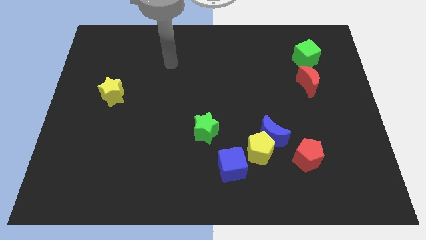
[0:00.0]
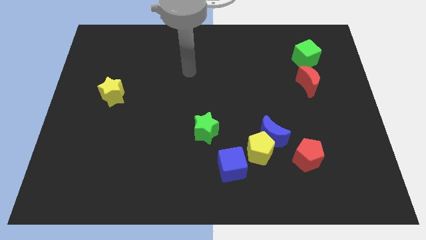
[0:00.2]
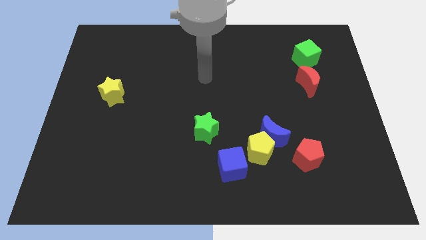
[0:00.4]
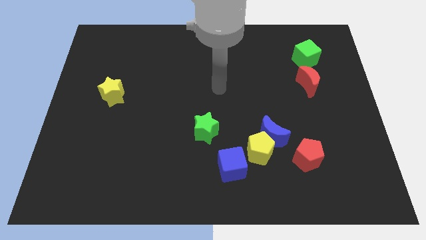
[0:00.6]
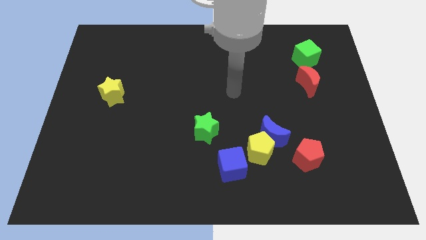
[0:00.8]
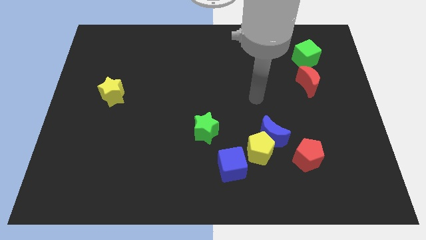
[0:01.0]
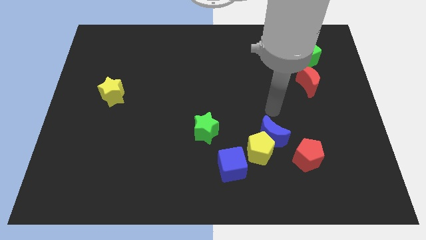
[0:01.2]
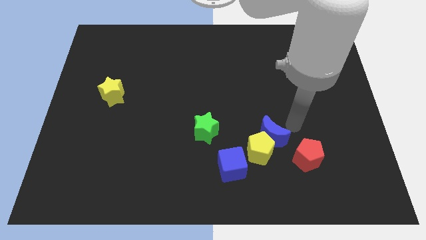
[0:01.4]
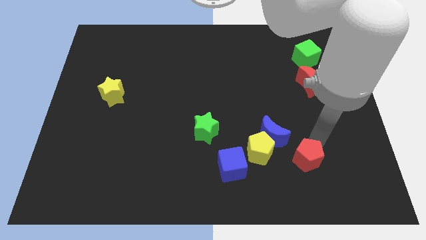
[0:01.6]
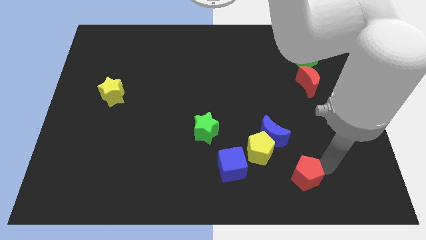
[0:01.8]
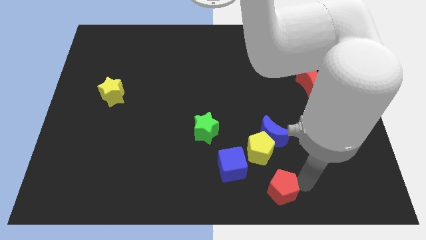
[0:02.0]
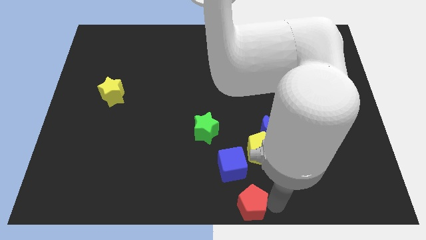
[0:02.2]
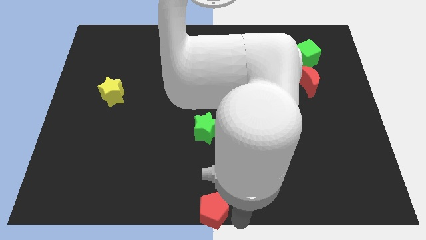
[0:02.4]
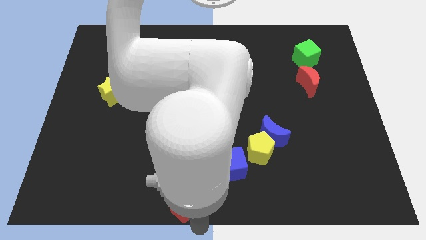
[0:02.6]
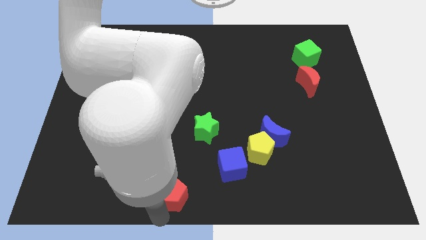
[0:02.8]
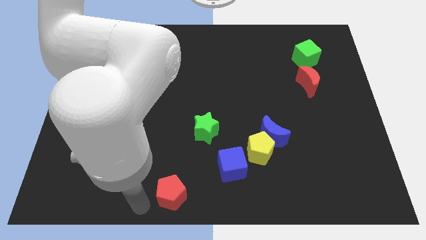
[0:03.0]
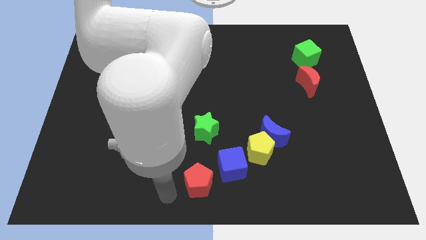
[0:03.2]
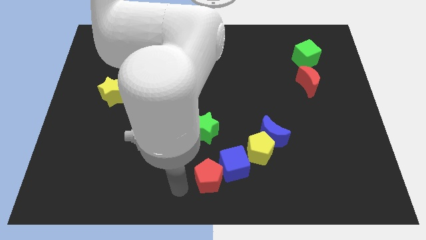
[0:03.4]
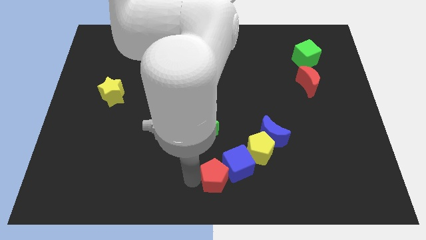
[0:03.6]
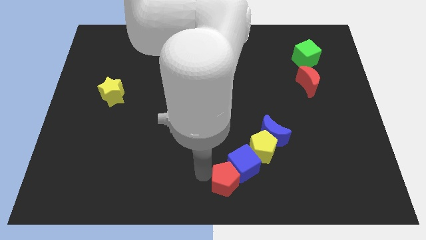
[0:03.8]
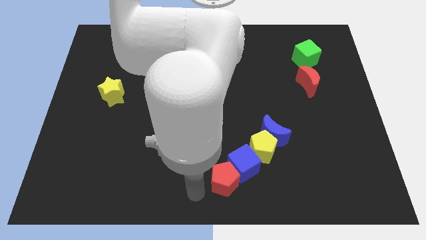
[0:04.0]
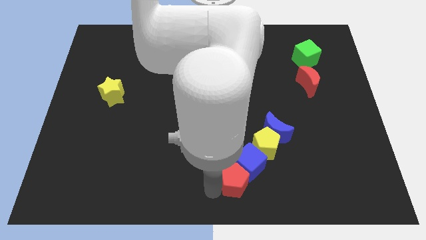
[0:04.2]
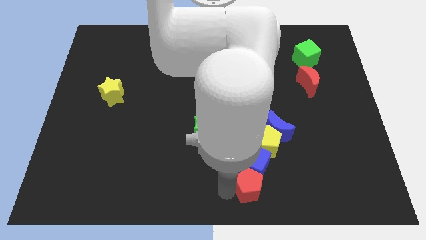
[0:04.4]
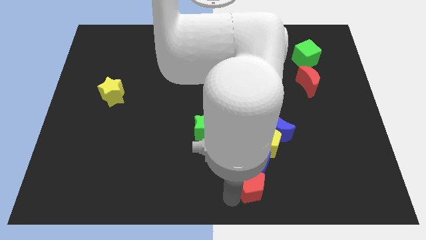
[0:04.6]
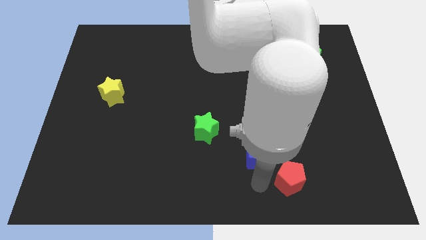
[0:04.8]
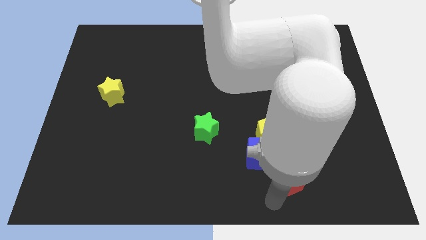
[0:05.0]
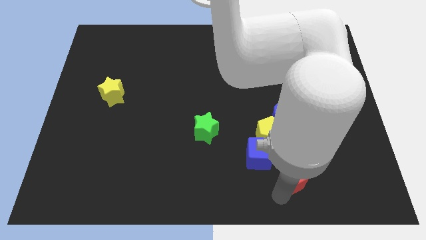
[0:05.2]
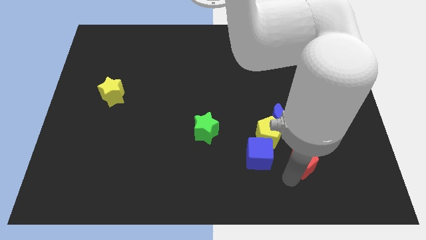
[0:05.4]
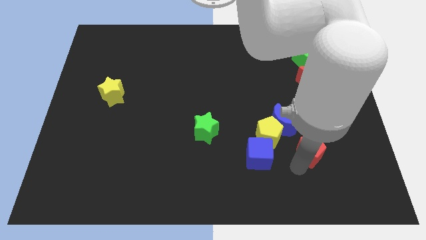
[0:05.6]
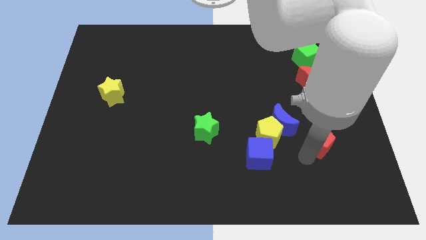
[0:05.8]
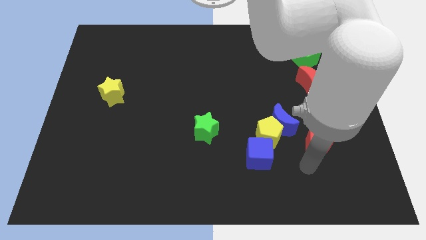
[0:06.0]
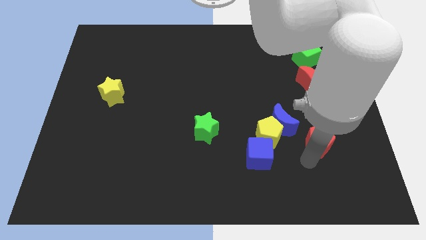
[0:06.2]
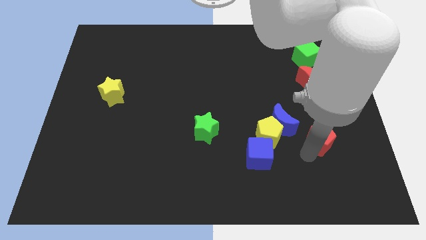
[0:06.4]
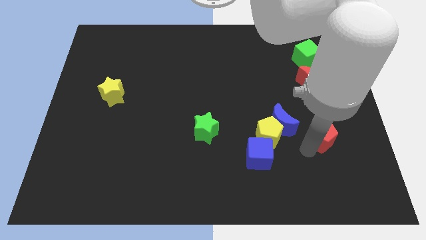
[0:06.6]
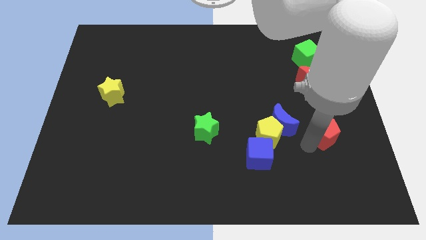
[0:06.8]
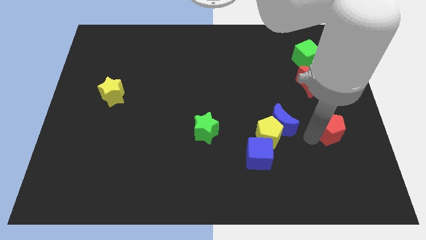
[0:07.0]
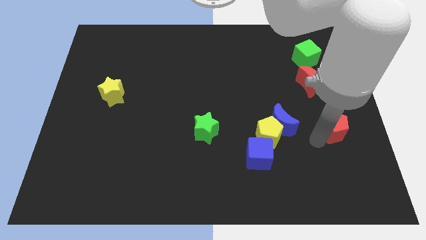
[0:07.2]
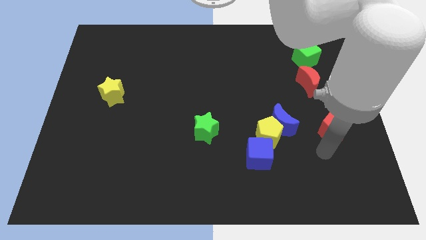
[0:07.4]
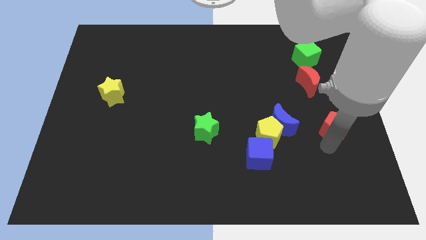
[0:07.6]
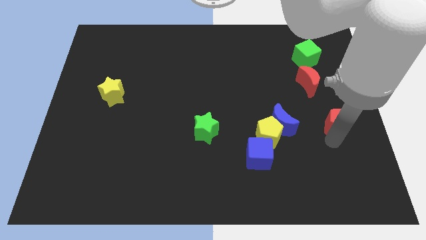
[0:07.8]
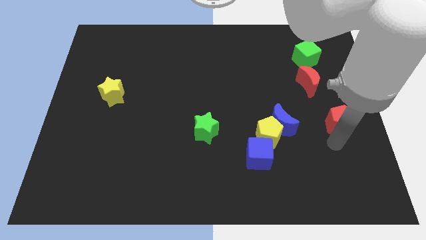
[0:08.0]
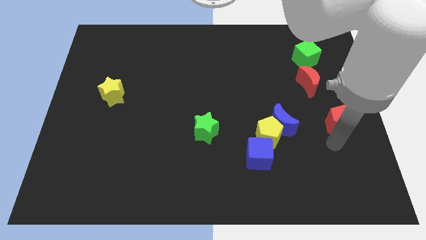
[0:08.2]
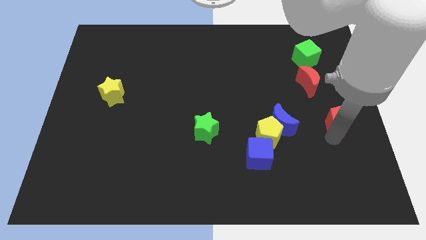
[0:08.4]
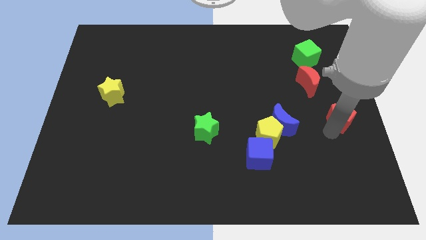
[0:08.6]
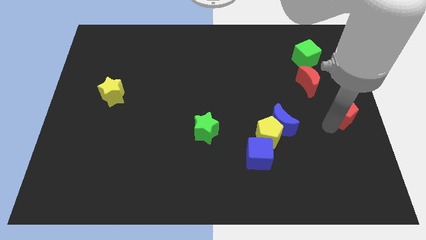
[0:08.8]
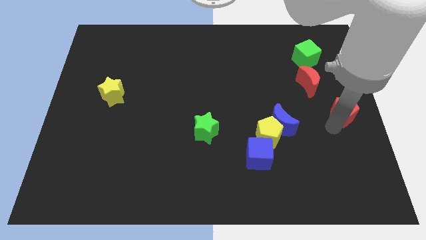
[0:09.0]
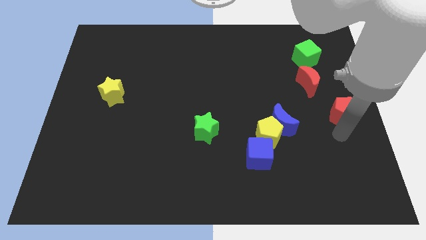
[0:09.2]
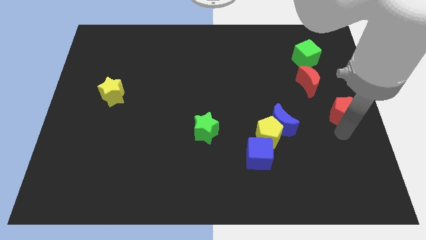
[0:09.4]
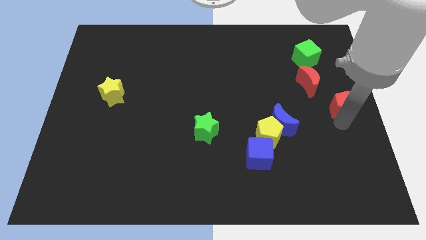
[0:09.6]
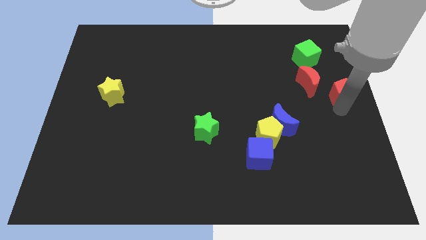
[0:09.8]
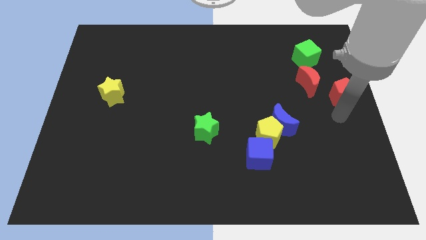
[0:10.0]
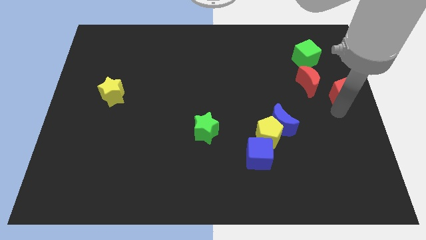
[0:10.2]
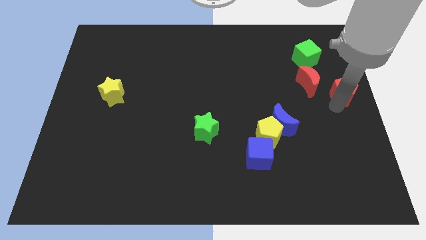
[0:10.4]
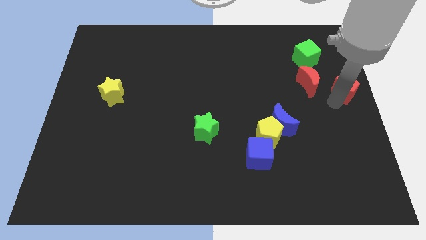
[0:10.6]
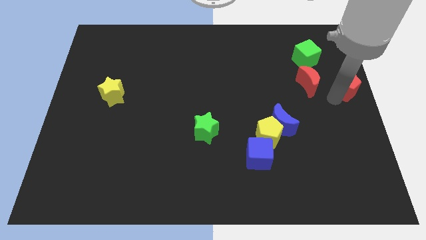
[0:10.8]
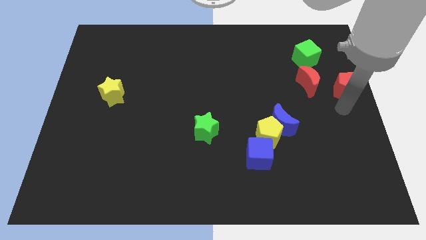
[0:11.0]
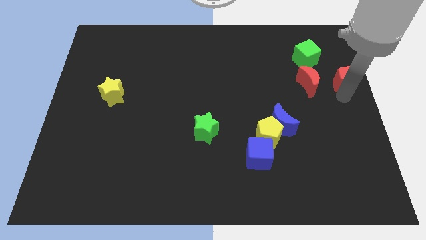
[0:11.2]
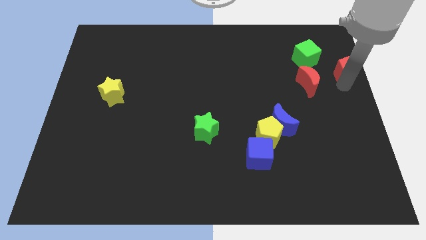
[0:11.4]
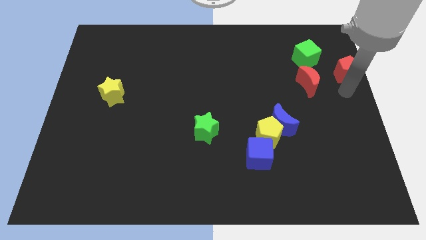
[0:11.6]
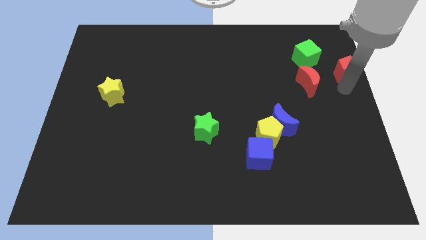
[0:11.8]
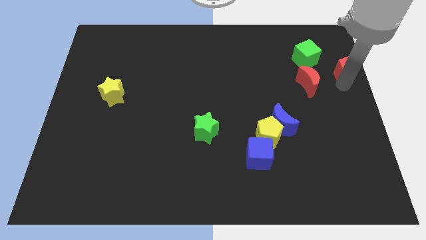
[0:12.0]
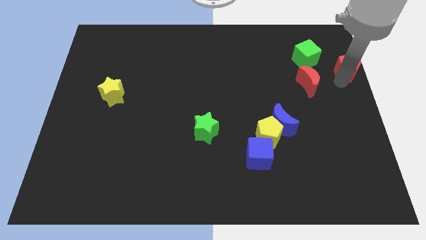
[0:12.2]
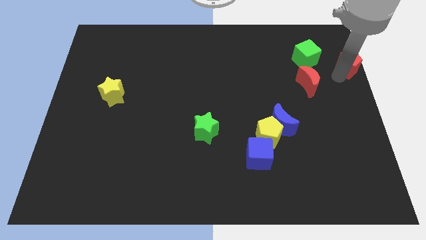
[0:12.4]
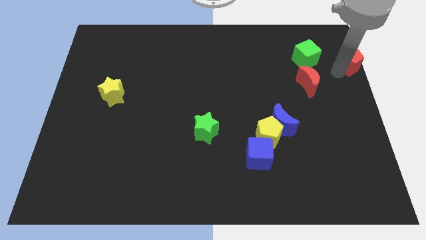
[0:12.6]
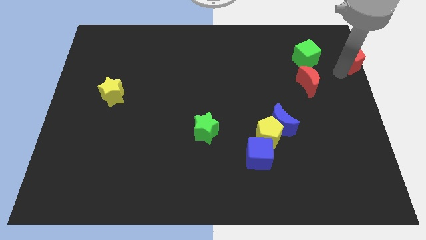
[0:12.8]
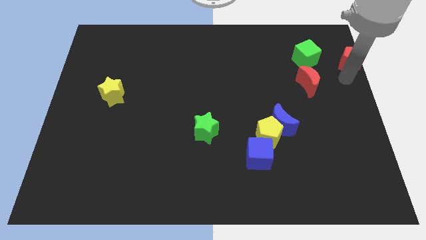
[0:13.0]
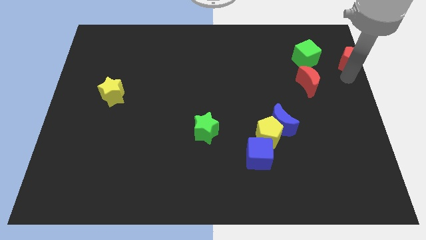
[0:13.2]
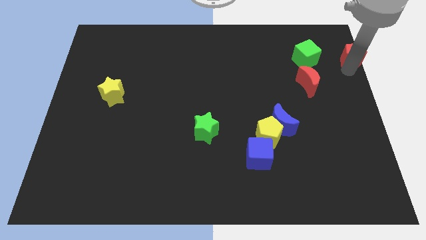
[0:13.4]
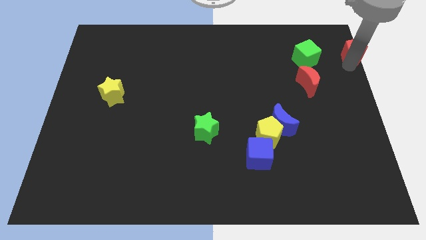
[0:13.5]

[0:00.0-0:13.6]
push the red pentagon to the upper right corner

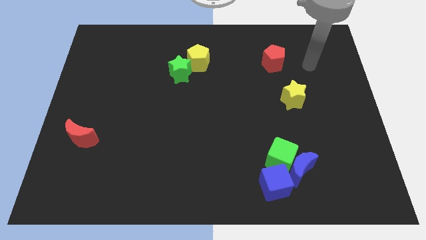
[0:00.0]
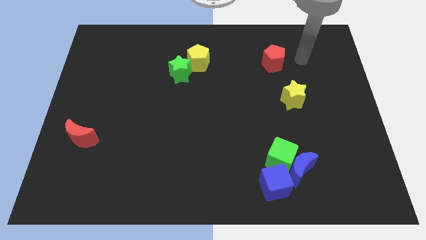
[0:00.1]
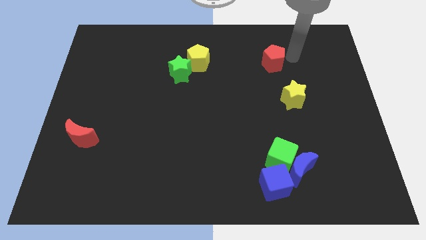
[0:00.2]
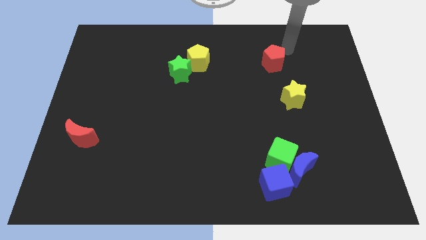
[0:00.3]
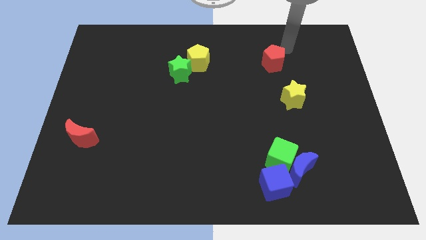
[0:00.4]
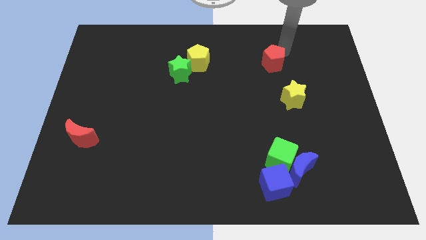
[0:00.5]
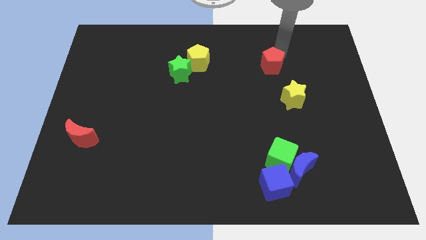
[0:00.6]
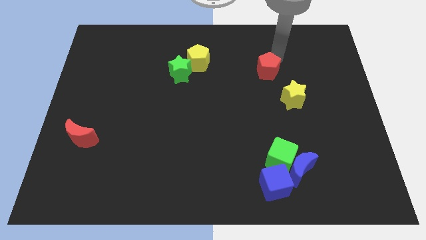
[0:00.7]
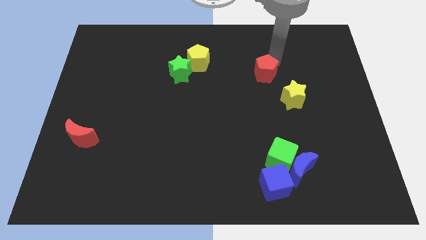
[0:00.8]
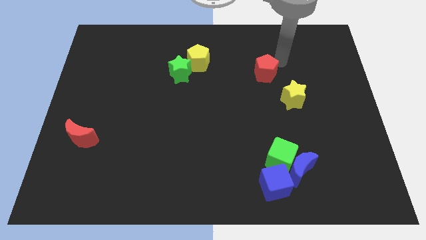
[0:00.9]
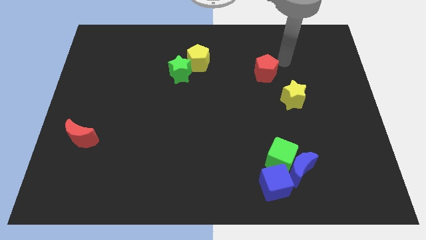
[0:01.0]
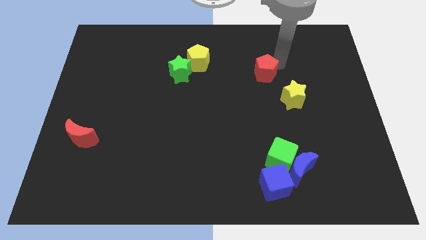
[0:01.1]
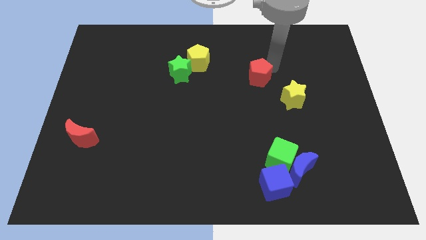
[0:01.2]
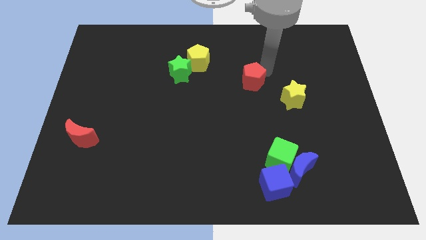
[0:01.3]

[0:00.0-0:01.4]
move the red pentagon to the center
